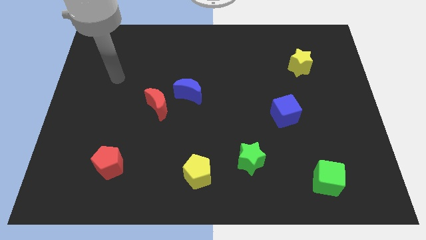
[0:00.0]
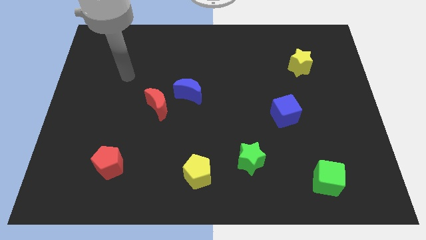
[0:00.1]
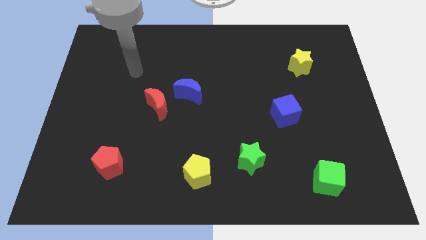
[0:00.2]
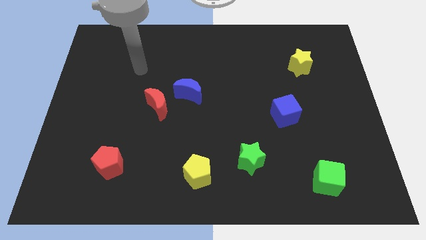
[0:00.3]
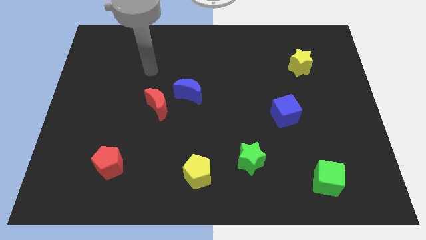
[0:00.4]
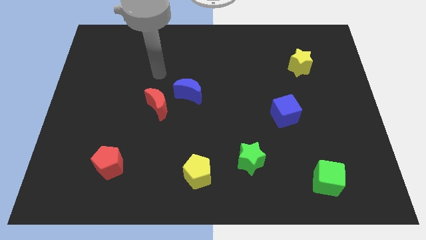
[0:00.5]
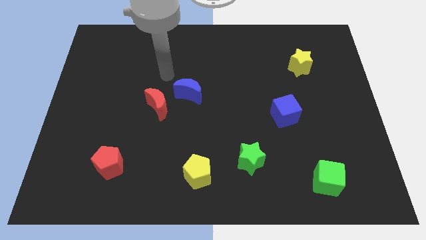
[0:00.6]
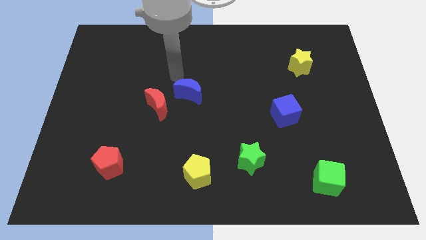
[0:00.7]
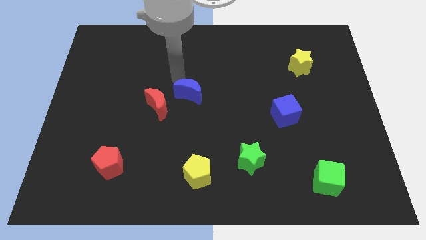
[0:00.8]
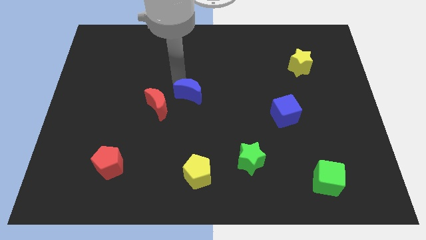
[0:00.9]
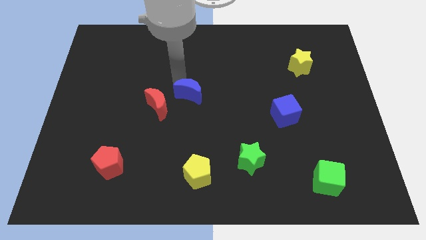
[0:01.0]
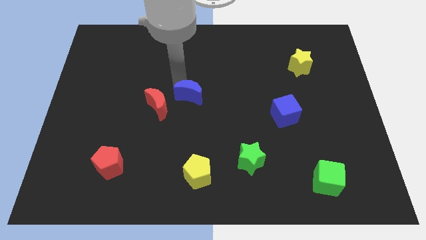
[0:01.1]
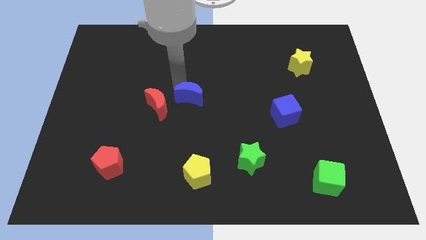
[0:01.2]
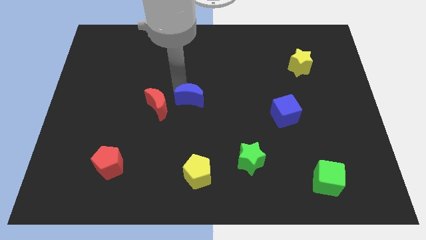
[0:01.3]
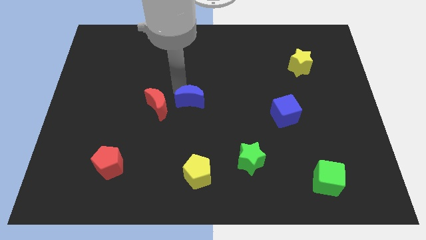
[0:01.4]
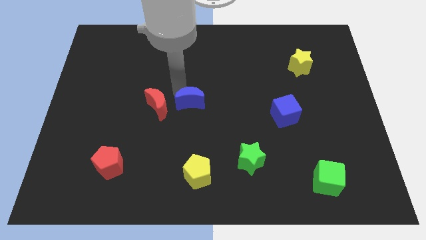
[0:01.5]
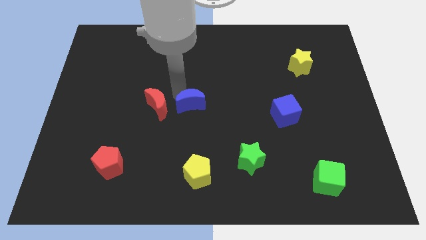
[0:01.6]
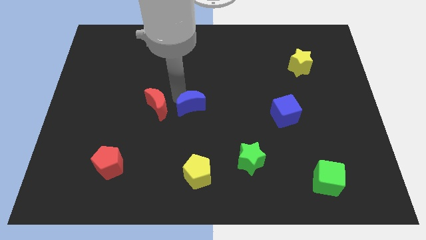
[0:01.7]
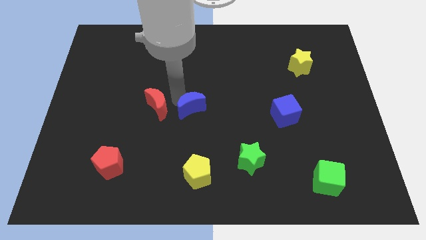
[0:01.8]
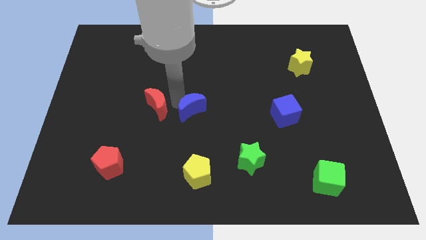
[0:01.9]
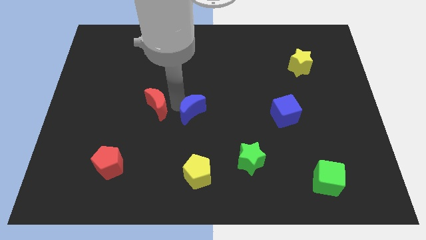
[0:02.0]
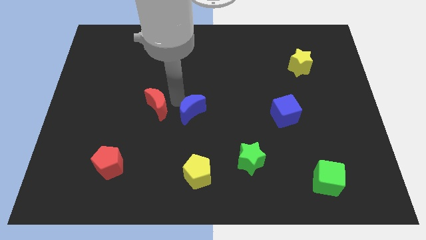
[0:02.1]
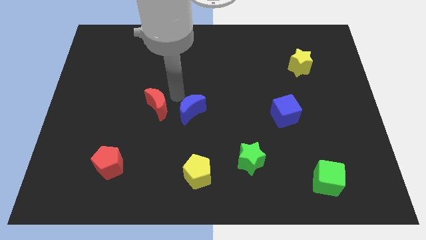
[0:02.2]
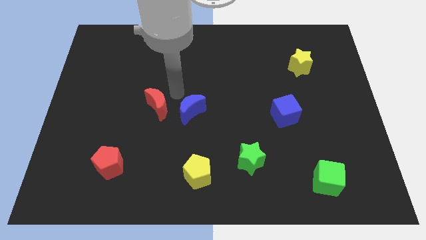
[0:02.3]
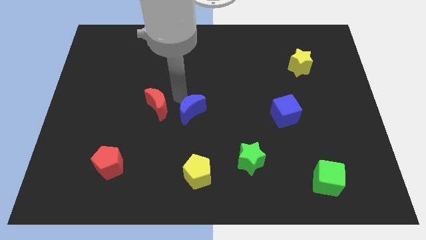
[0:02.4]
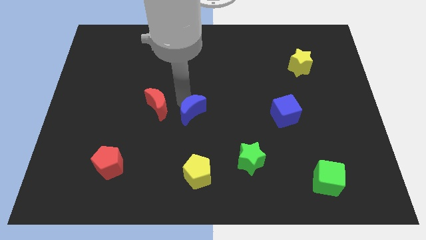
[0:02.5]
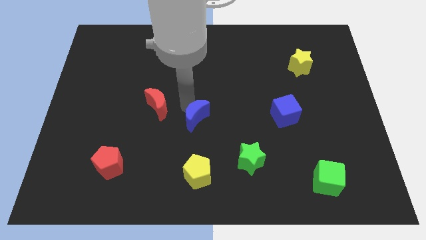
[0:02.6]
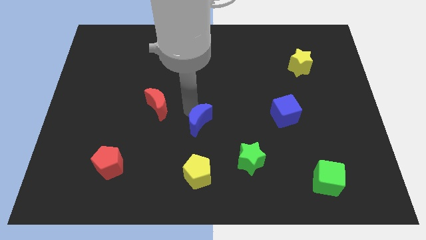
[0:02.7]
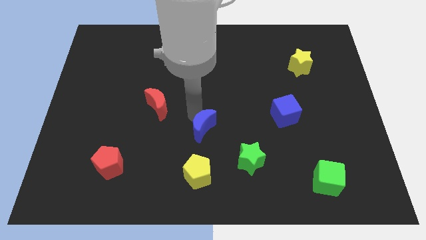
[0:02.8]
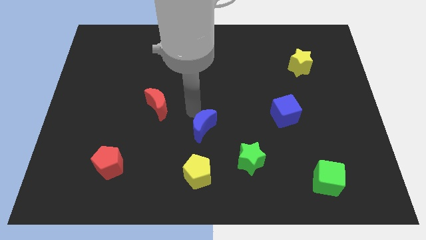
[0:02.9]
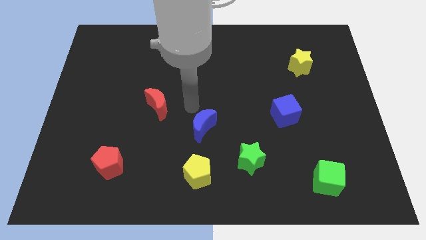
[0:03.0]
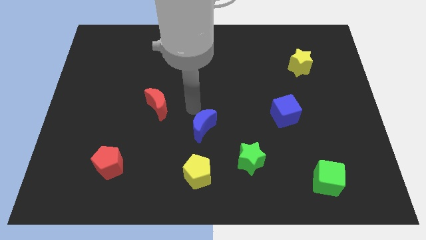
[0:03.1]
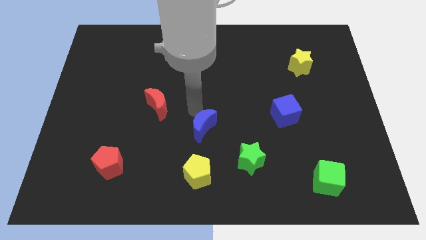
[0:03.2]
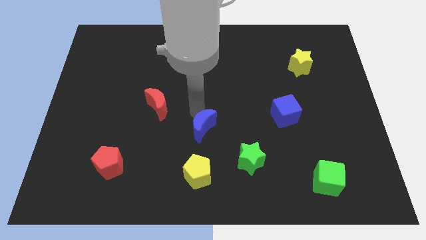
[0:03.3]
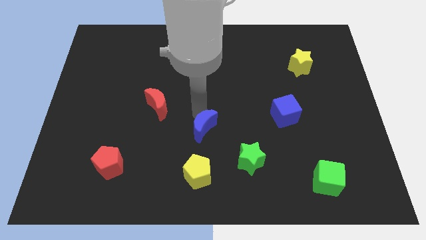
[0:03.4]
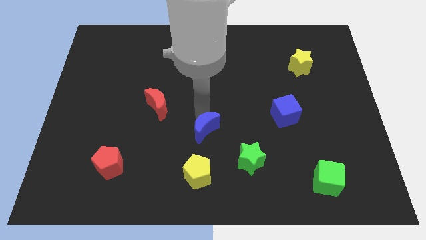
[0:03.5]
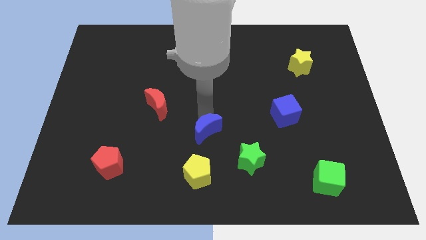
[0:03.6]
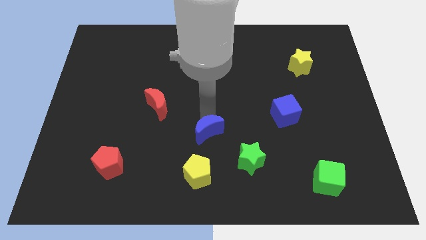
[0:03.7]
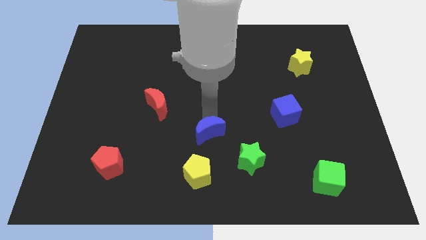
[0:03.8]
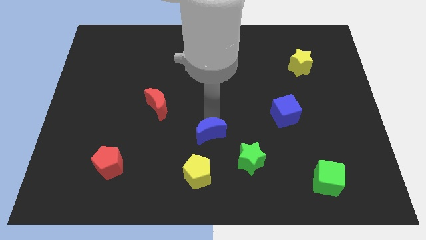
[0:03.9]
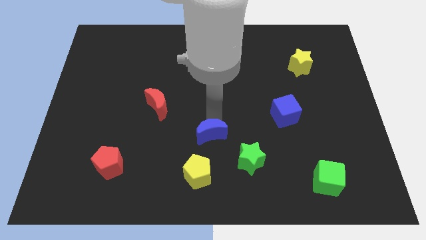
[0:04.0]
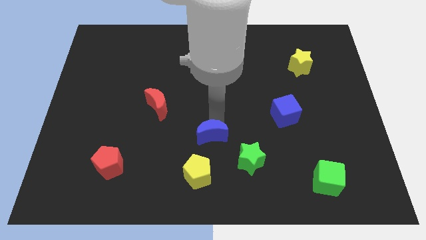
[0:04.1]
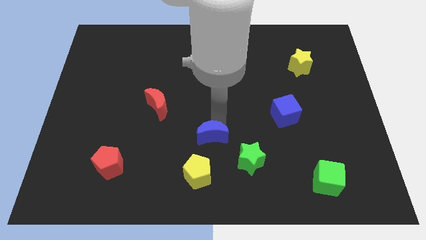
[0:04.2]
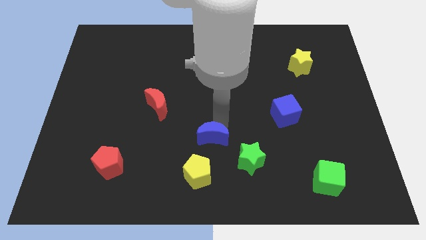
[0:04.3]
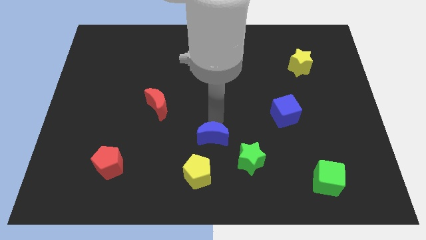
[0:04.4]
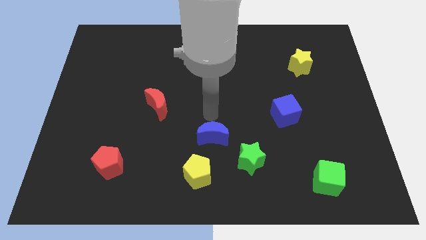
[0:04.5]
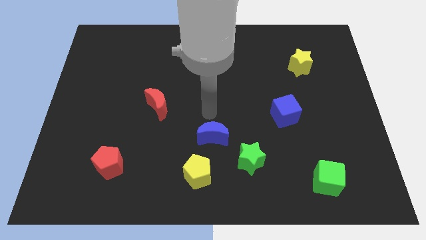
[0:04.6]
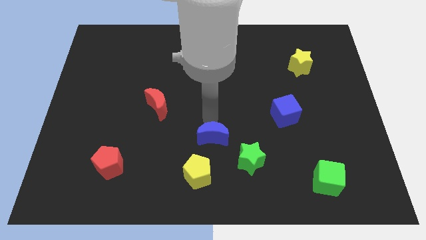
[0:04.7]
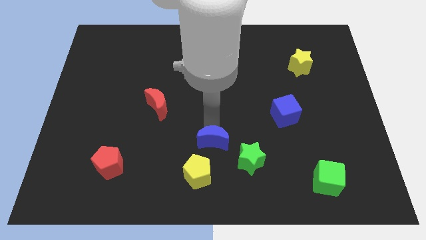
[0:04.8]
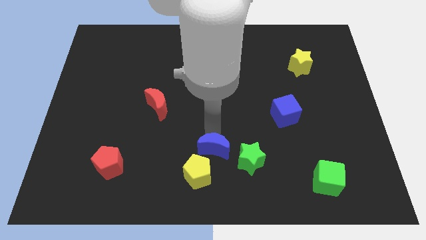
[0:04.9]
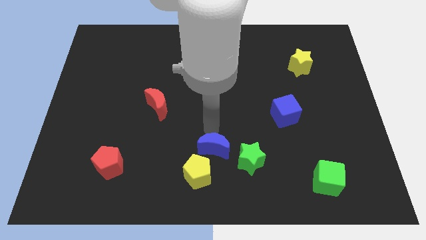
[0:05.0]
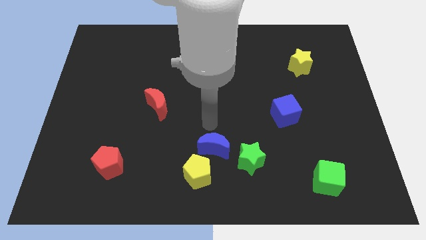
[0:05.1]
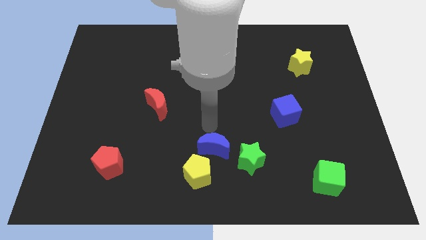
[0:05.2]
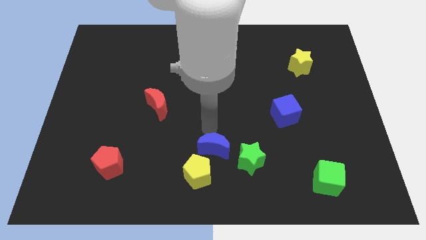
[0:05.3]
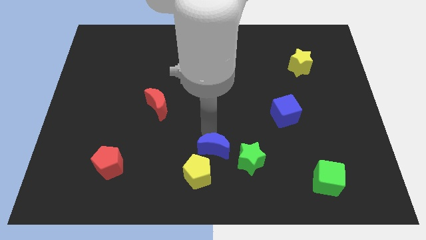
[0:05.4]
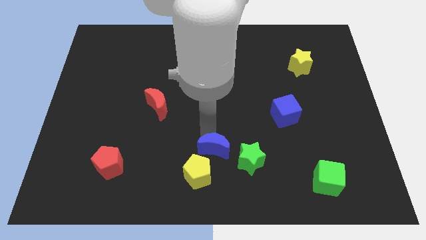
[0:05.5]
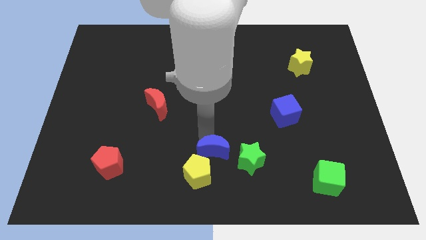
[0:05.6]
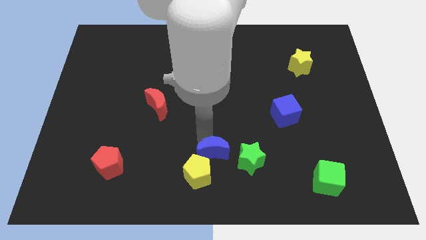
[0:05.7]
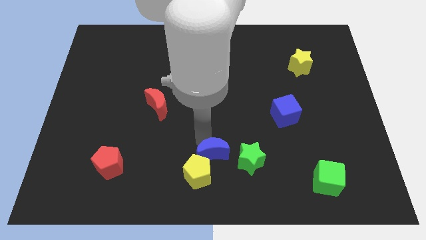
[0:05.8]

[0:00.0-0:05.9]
slide the blue moon to the bottom

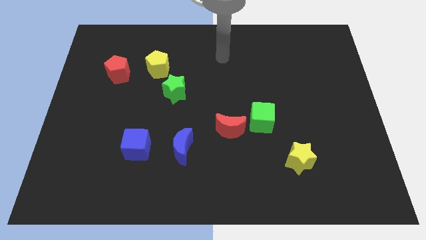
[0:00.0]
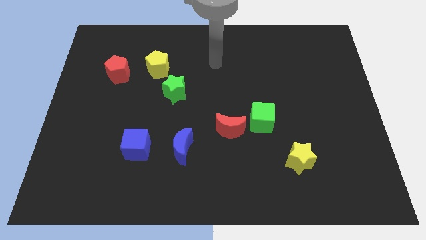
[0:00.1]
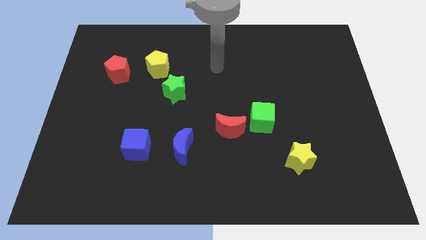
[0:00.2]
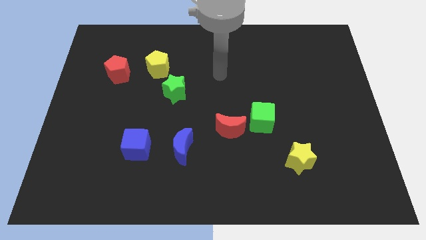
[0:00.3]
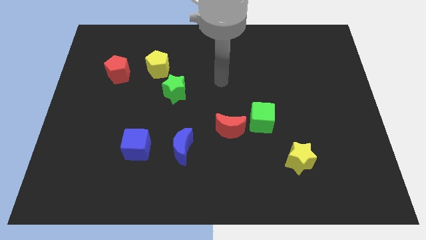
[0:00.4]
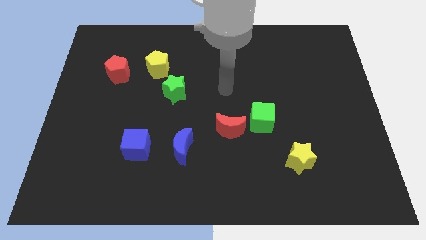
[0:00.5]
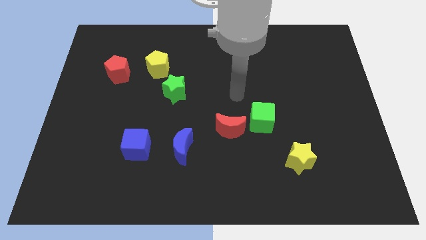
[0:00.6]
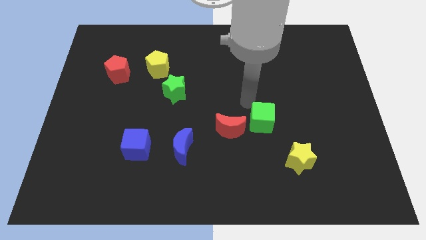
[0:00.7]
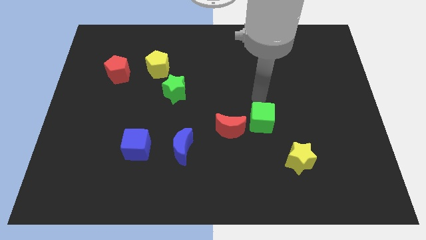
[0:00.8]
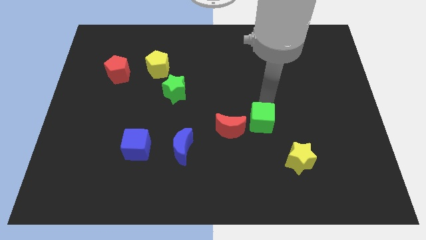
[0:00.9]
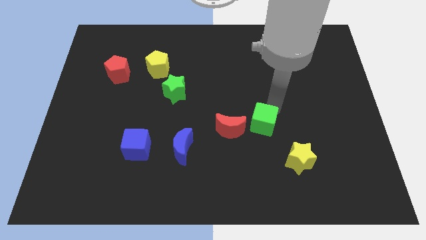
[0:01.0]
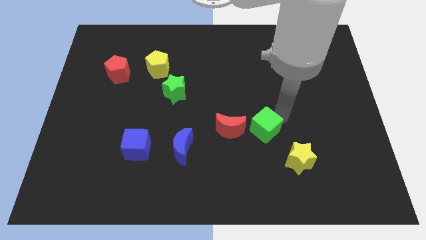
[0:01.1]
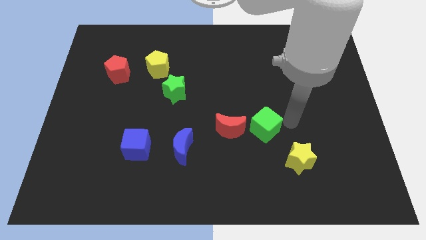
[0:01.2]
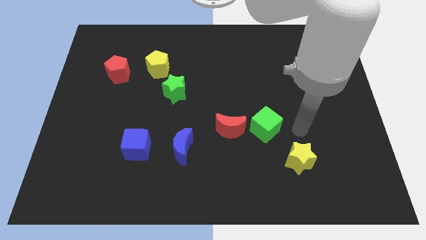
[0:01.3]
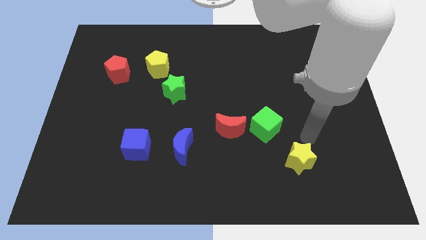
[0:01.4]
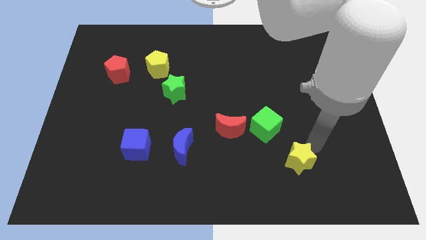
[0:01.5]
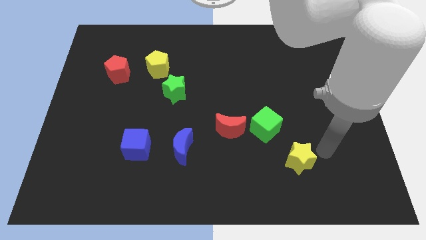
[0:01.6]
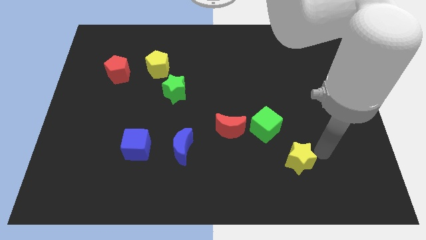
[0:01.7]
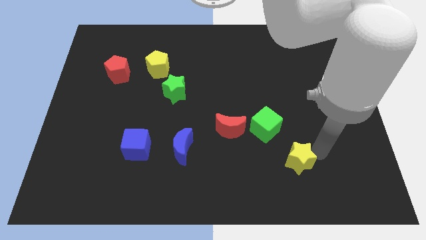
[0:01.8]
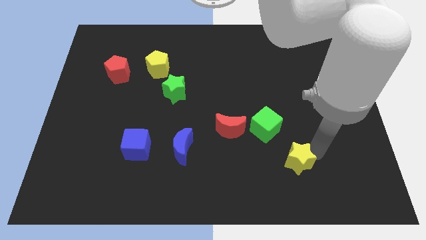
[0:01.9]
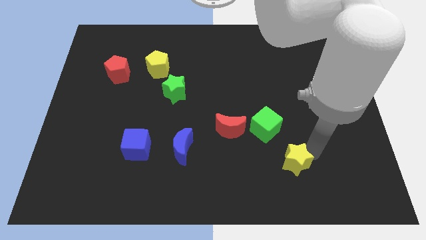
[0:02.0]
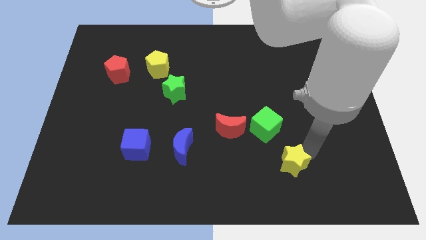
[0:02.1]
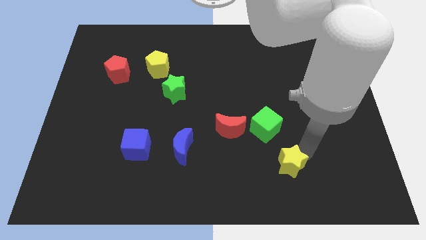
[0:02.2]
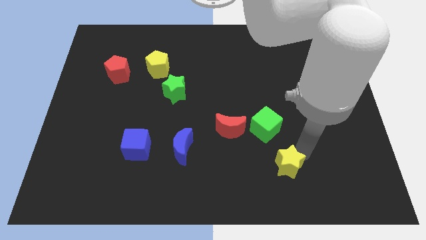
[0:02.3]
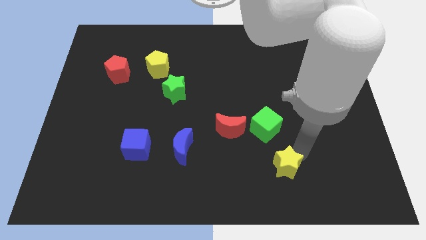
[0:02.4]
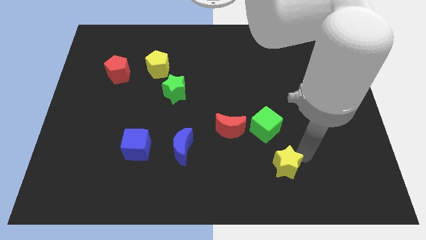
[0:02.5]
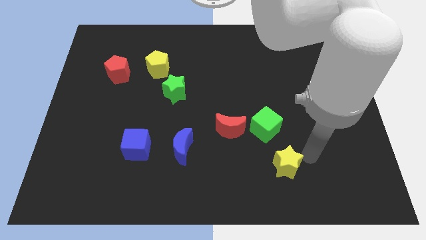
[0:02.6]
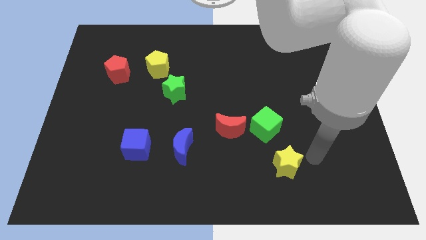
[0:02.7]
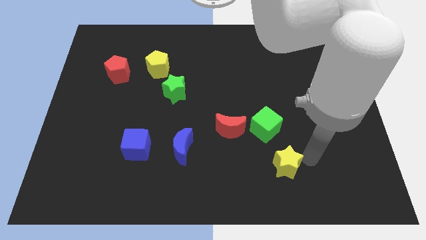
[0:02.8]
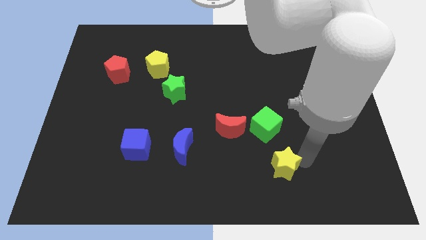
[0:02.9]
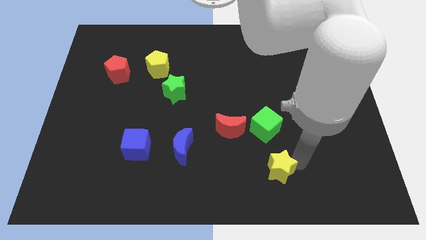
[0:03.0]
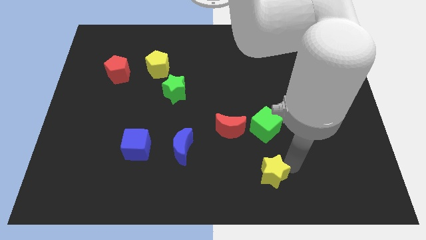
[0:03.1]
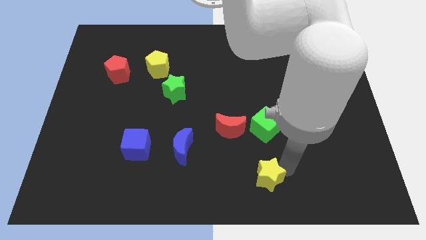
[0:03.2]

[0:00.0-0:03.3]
put the yellow star to the bottom
